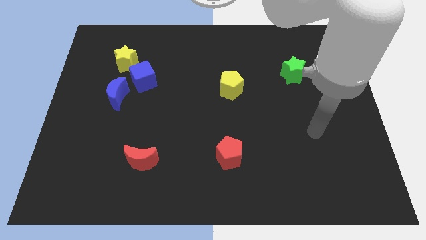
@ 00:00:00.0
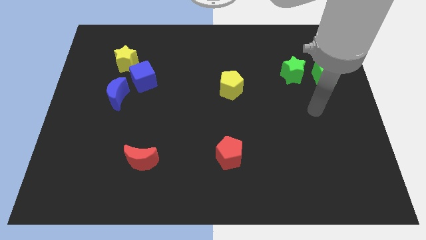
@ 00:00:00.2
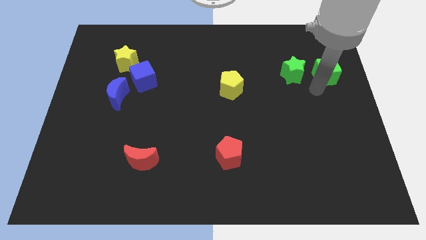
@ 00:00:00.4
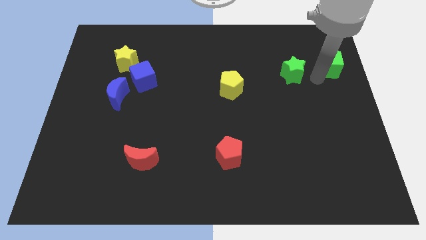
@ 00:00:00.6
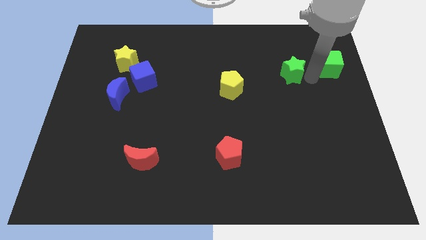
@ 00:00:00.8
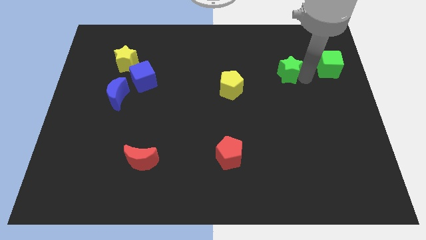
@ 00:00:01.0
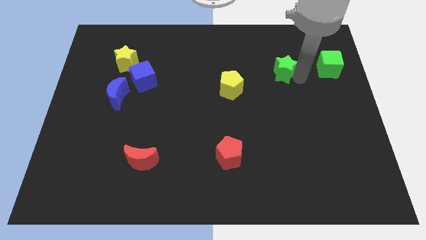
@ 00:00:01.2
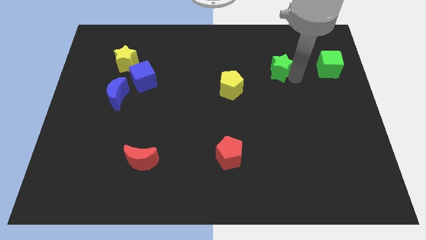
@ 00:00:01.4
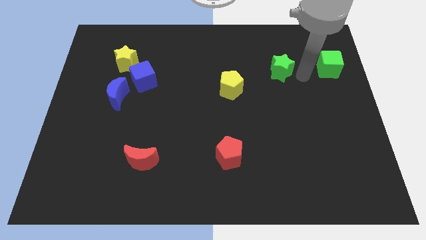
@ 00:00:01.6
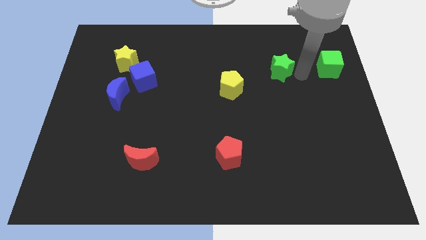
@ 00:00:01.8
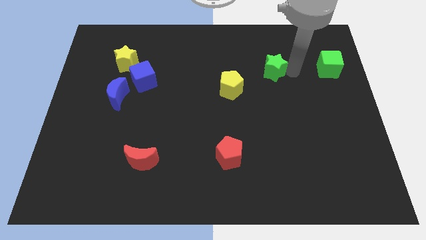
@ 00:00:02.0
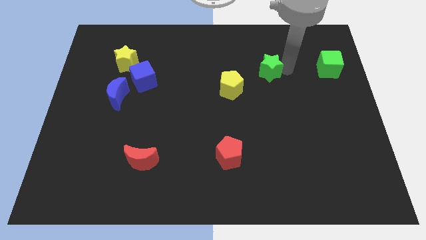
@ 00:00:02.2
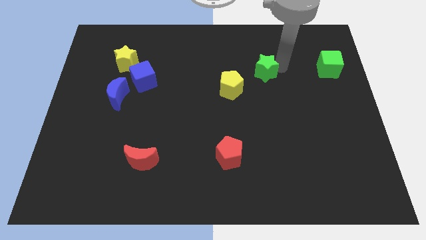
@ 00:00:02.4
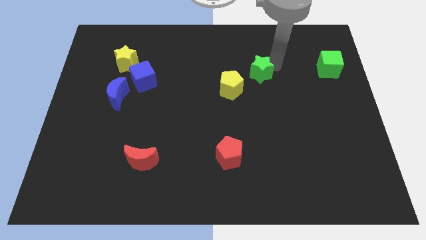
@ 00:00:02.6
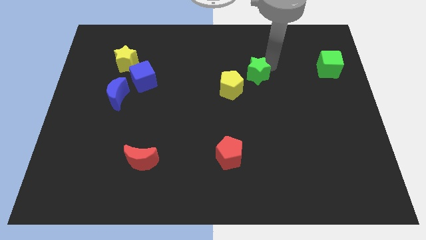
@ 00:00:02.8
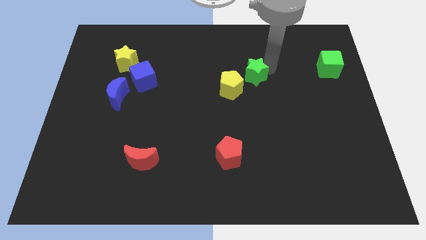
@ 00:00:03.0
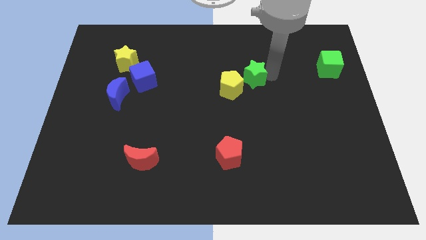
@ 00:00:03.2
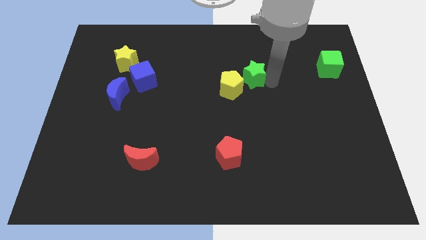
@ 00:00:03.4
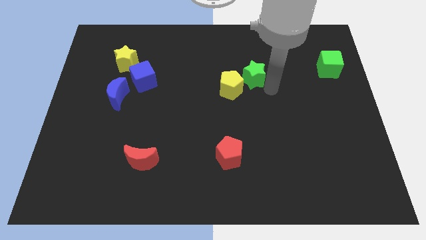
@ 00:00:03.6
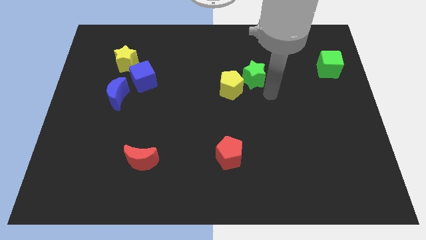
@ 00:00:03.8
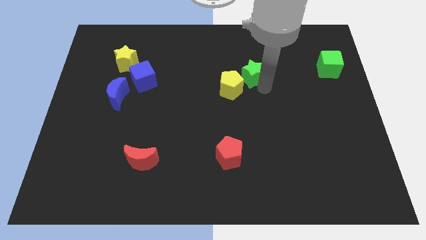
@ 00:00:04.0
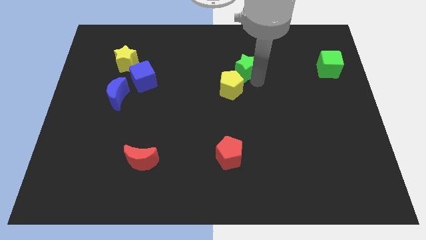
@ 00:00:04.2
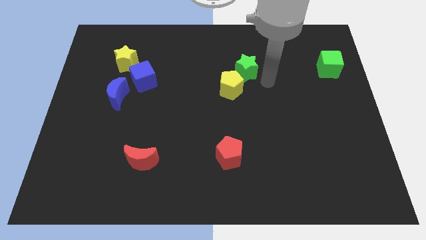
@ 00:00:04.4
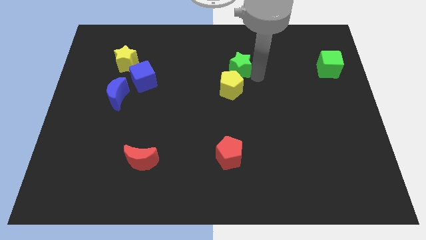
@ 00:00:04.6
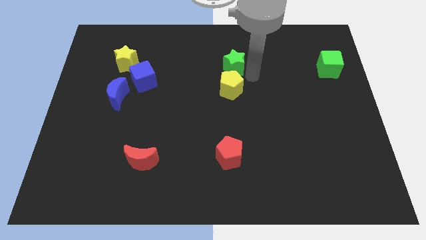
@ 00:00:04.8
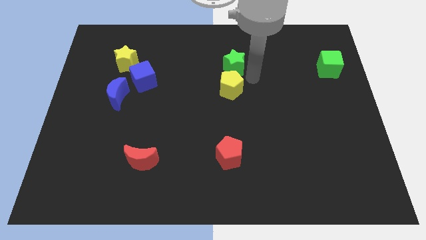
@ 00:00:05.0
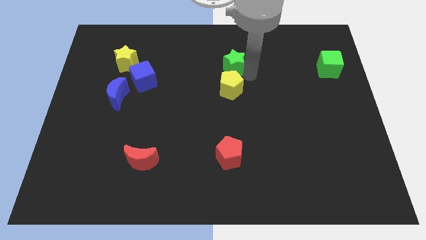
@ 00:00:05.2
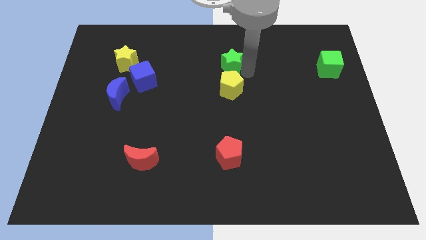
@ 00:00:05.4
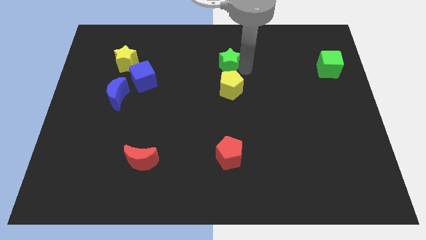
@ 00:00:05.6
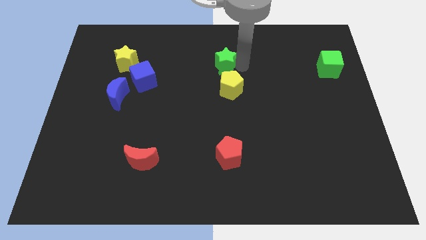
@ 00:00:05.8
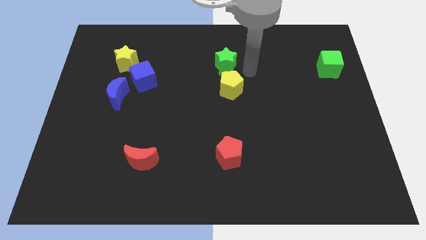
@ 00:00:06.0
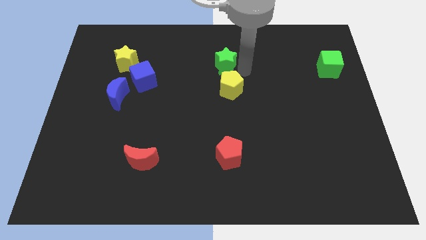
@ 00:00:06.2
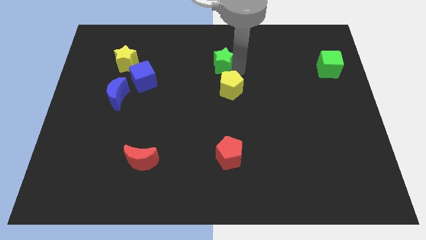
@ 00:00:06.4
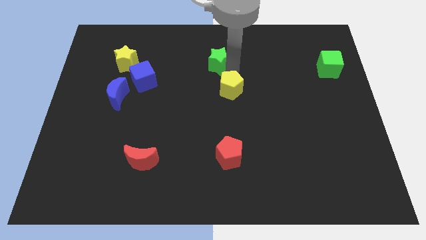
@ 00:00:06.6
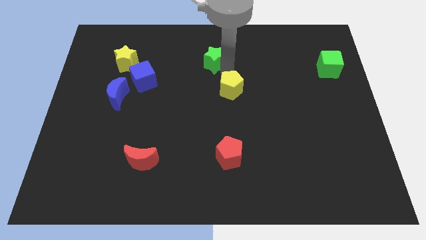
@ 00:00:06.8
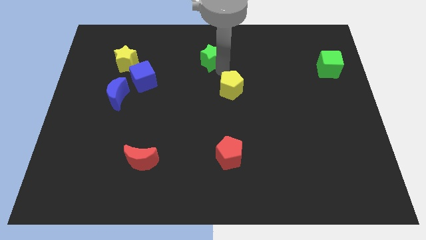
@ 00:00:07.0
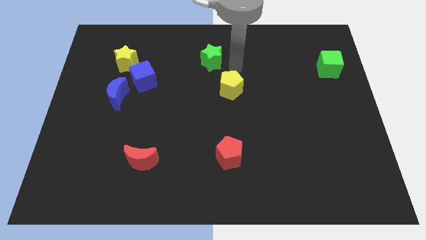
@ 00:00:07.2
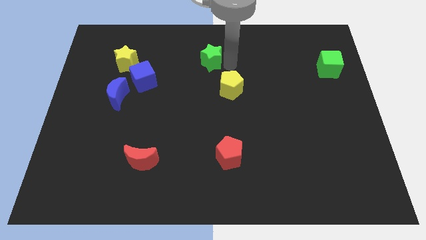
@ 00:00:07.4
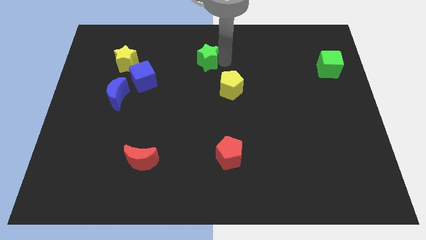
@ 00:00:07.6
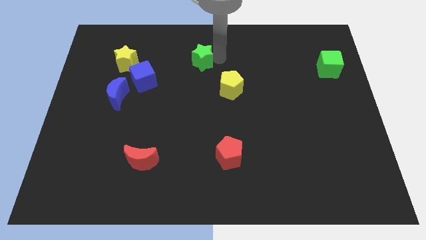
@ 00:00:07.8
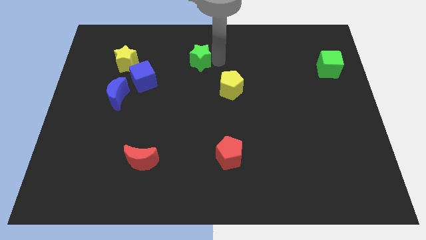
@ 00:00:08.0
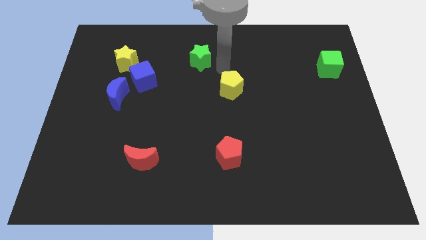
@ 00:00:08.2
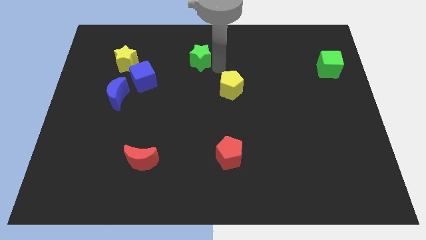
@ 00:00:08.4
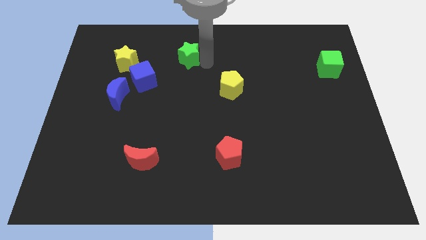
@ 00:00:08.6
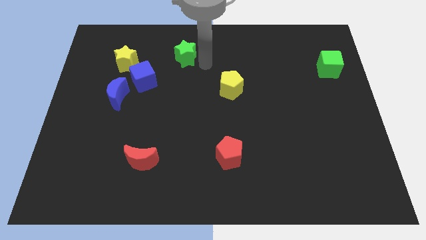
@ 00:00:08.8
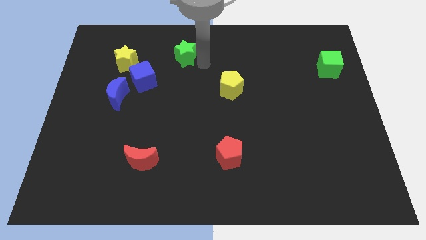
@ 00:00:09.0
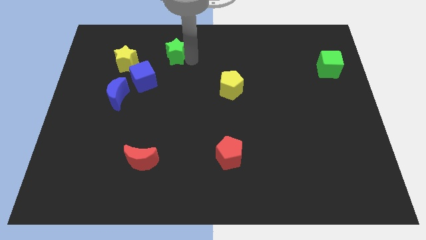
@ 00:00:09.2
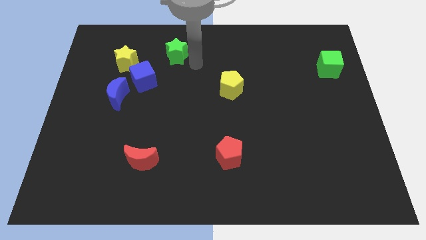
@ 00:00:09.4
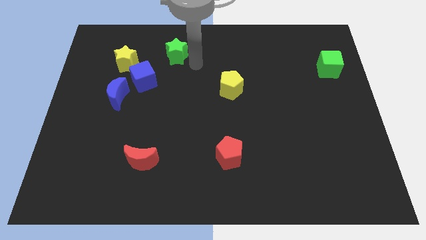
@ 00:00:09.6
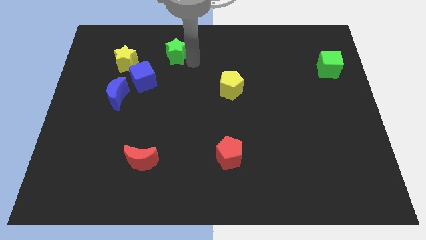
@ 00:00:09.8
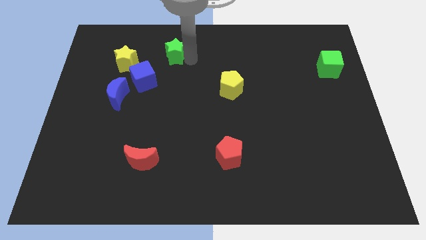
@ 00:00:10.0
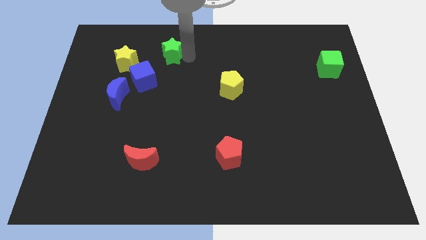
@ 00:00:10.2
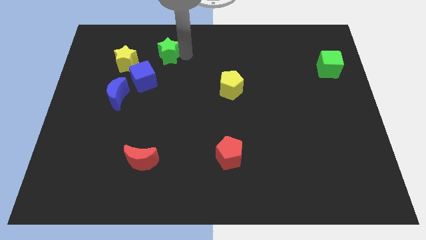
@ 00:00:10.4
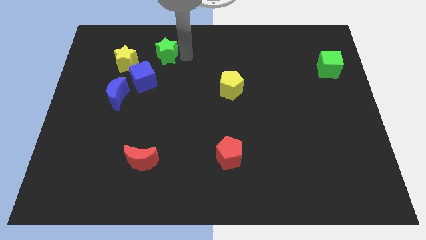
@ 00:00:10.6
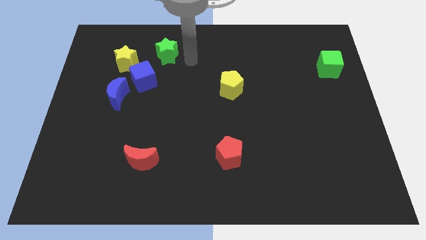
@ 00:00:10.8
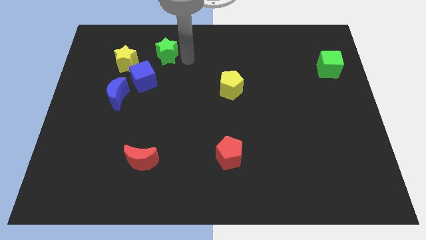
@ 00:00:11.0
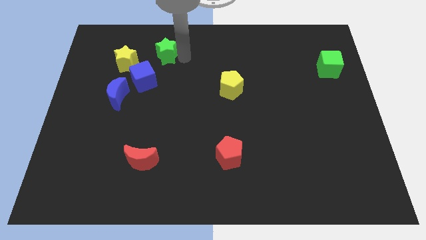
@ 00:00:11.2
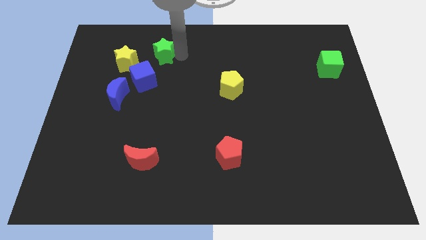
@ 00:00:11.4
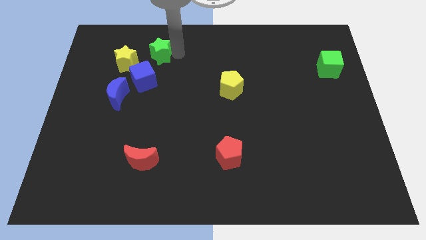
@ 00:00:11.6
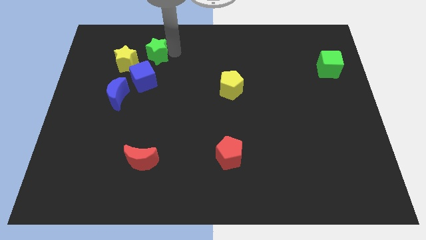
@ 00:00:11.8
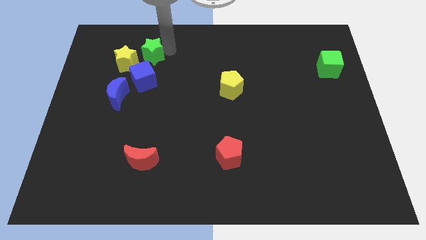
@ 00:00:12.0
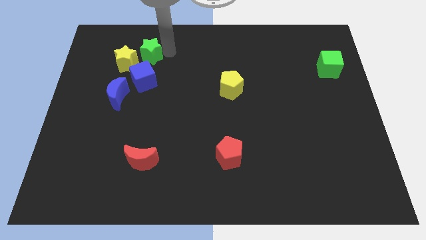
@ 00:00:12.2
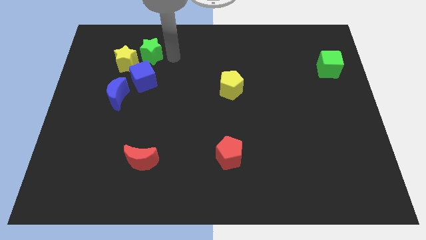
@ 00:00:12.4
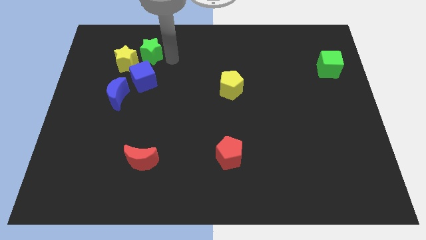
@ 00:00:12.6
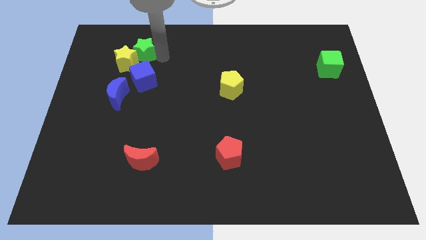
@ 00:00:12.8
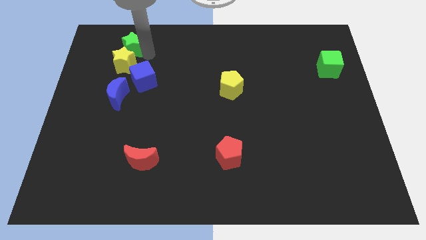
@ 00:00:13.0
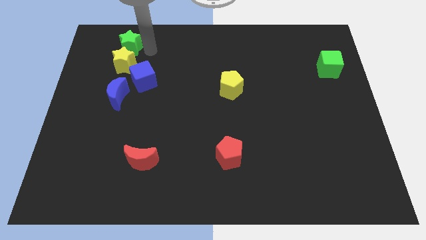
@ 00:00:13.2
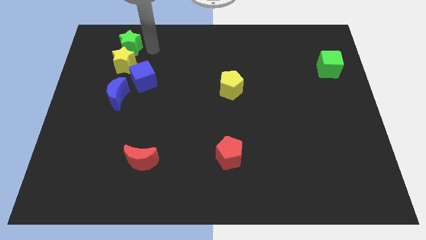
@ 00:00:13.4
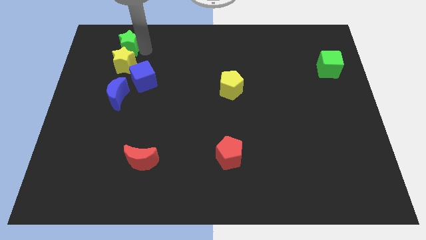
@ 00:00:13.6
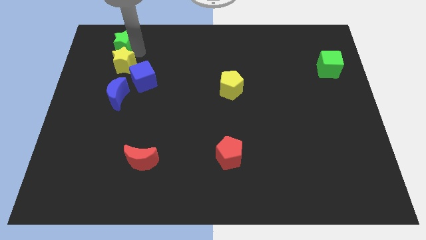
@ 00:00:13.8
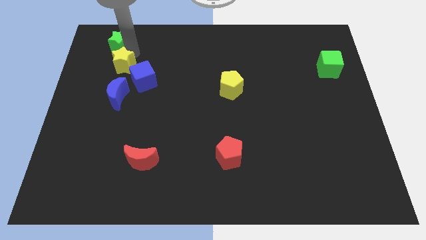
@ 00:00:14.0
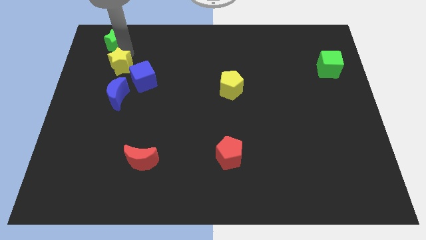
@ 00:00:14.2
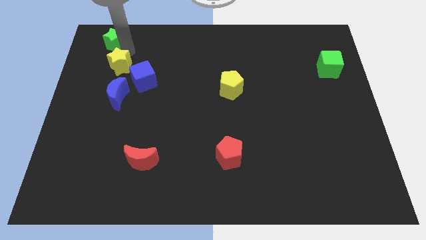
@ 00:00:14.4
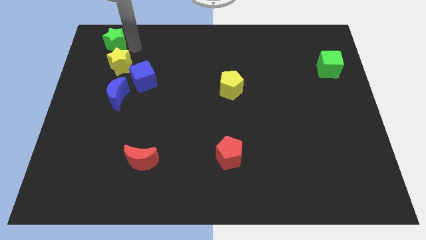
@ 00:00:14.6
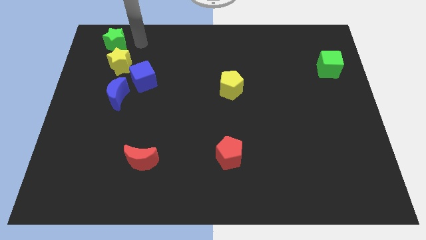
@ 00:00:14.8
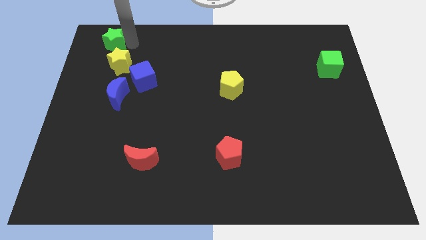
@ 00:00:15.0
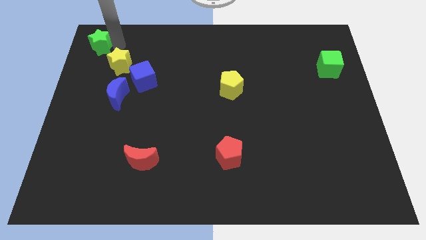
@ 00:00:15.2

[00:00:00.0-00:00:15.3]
put the green star to the top left corner
